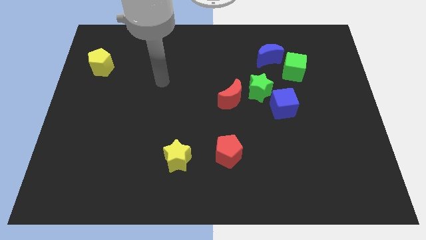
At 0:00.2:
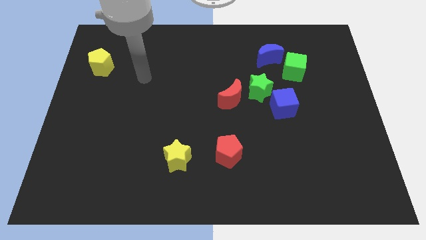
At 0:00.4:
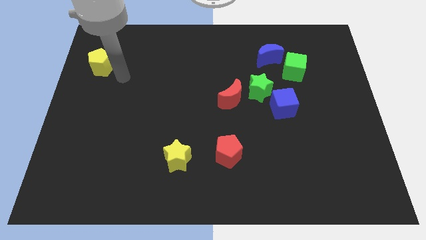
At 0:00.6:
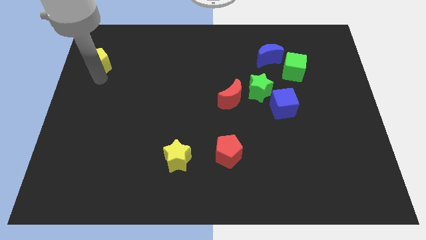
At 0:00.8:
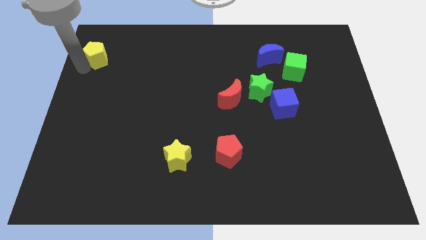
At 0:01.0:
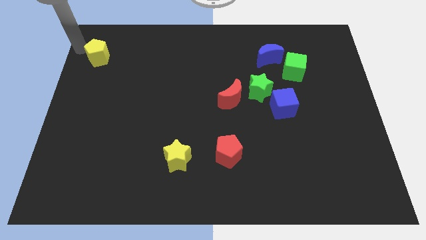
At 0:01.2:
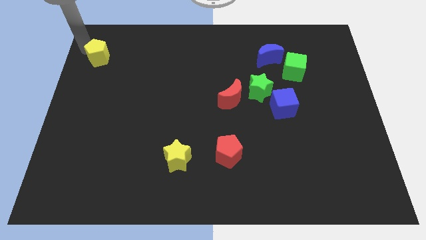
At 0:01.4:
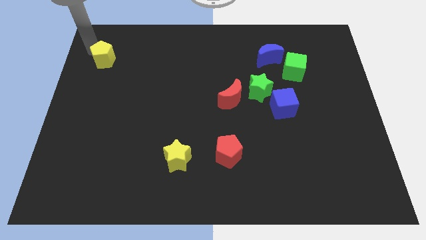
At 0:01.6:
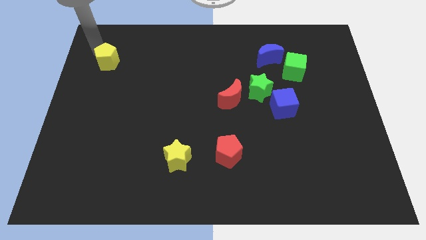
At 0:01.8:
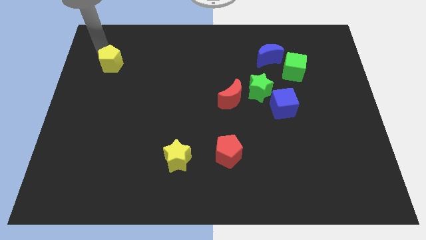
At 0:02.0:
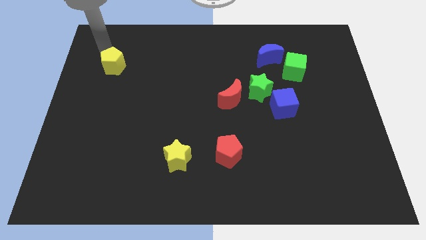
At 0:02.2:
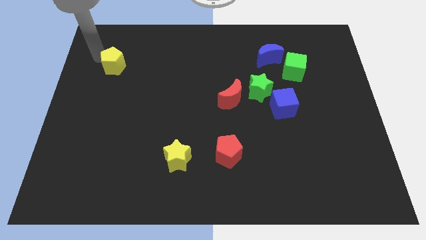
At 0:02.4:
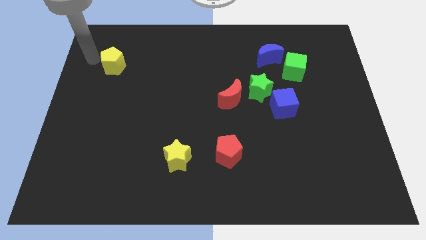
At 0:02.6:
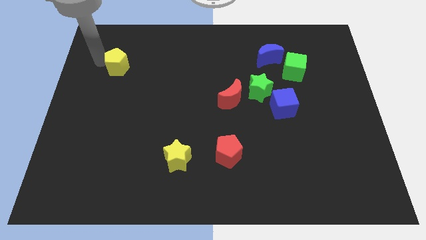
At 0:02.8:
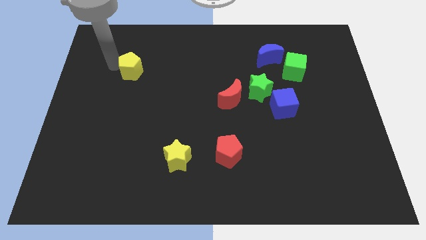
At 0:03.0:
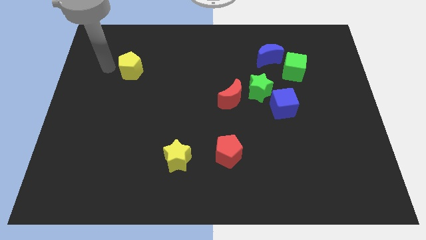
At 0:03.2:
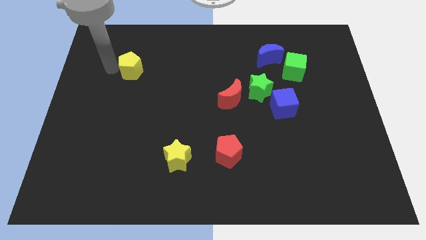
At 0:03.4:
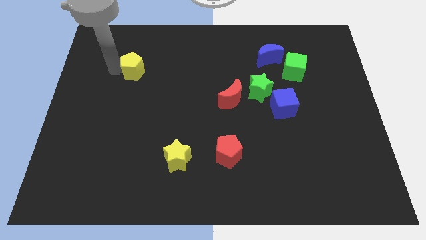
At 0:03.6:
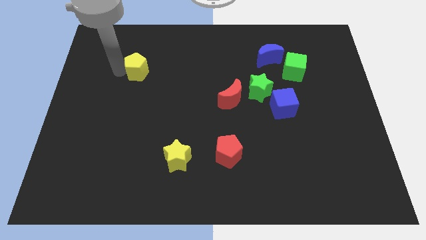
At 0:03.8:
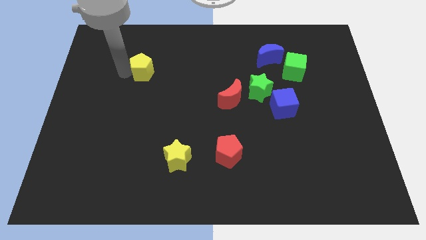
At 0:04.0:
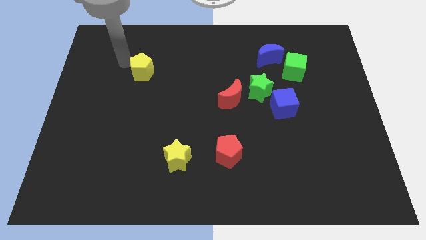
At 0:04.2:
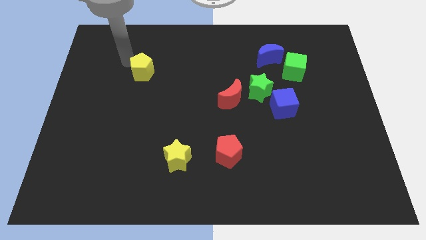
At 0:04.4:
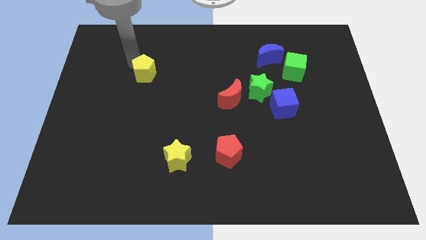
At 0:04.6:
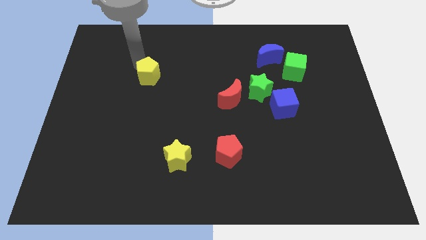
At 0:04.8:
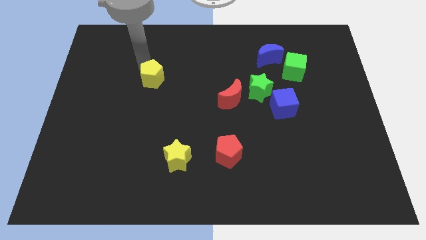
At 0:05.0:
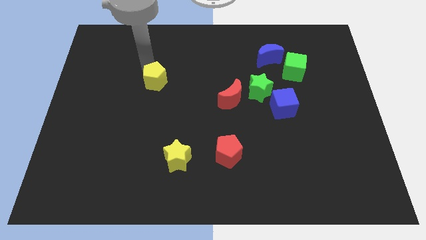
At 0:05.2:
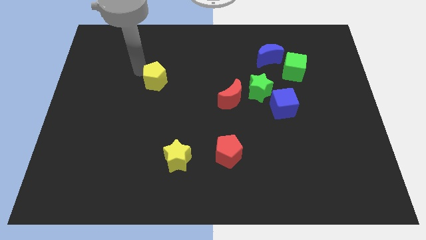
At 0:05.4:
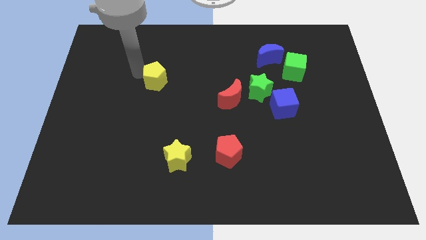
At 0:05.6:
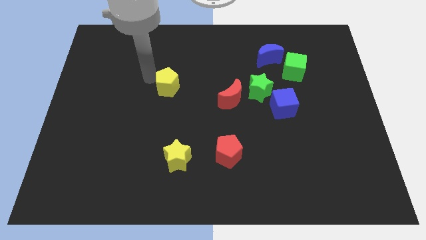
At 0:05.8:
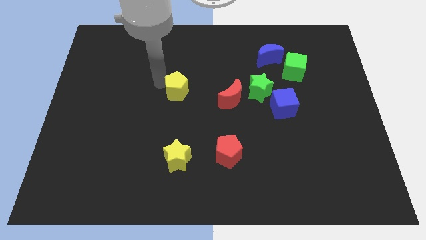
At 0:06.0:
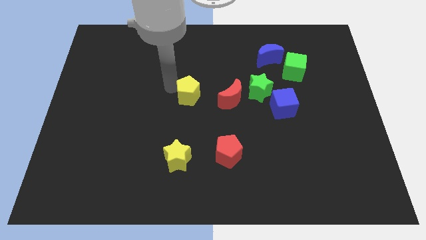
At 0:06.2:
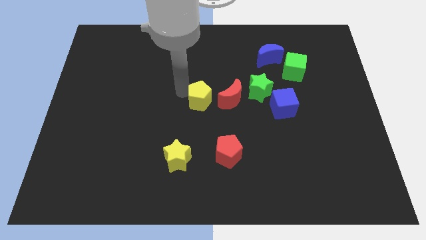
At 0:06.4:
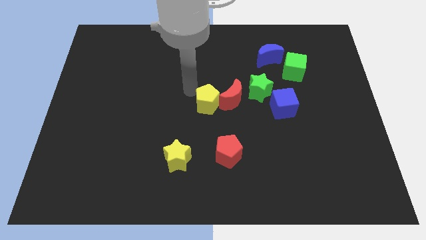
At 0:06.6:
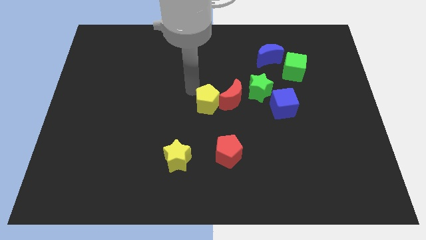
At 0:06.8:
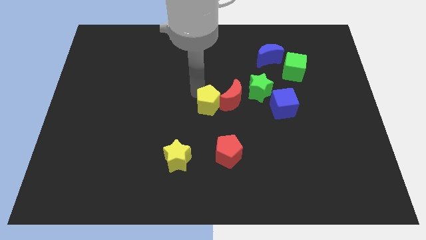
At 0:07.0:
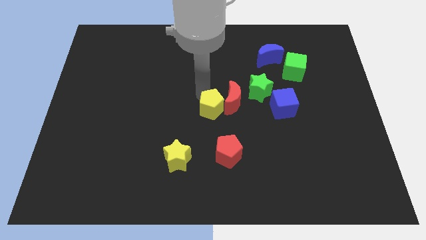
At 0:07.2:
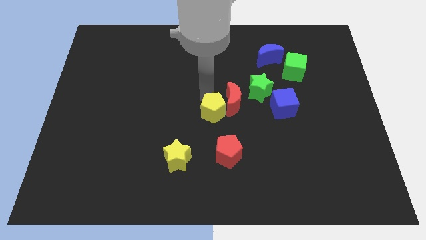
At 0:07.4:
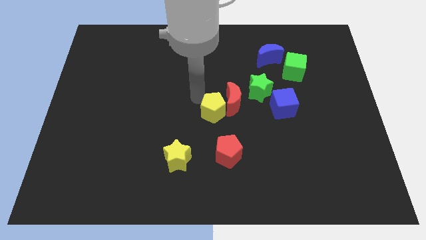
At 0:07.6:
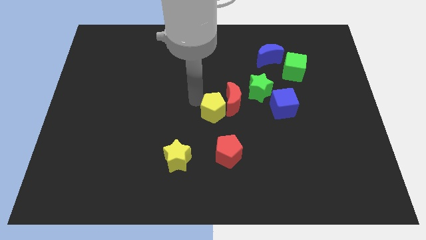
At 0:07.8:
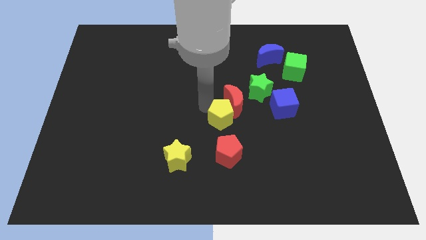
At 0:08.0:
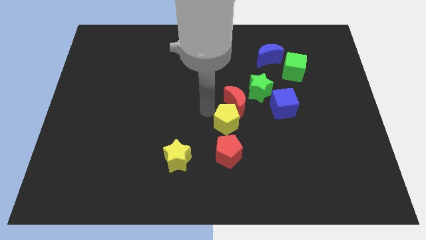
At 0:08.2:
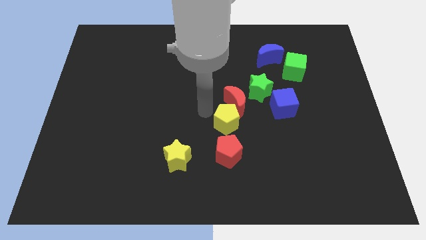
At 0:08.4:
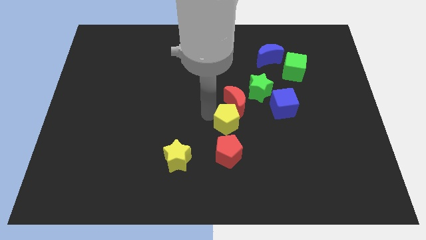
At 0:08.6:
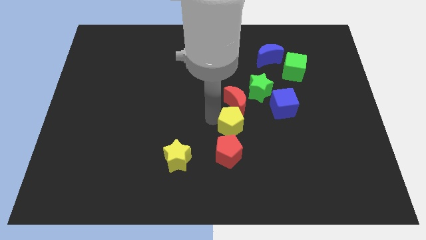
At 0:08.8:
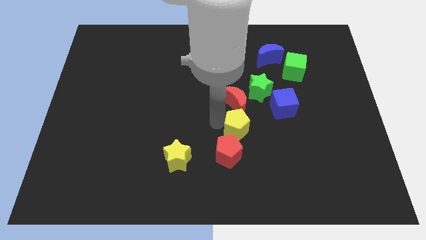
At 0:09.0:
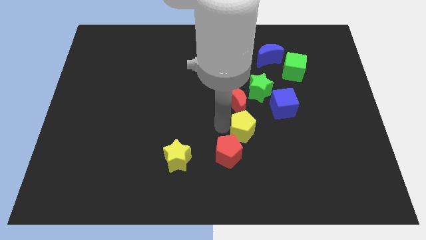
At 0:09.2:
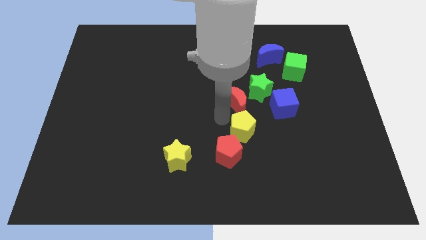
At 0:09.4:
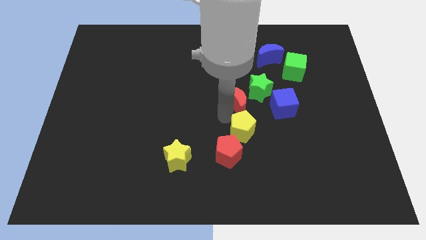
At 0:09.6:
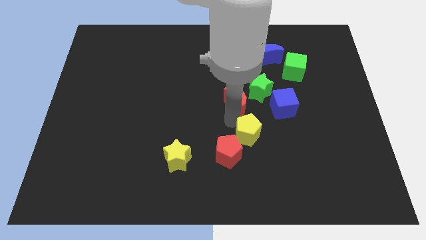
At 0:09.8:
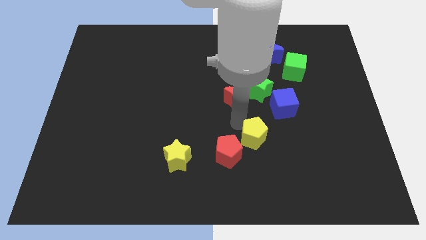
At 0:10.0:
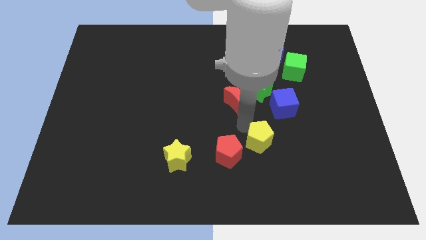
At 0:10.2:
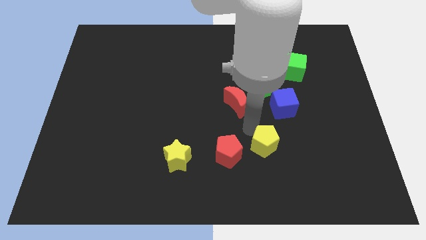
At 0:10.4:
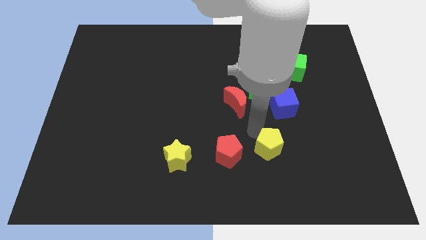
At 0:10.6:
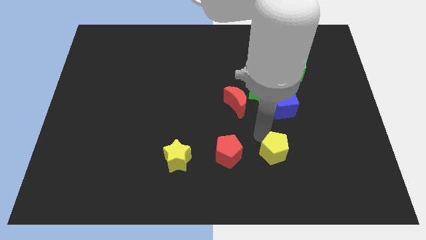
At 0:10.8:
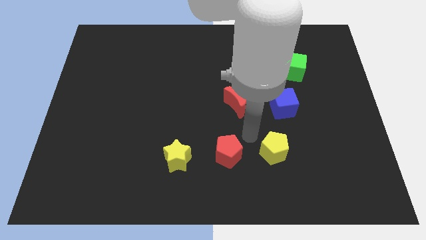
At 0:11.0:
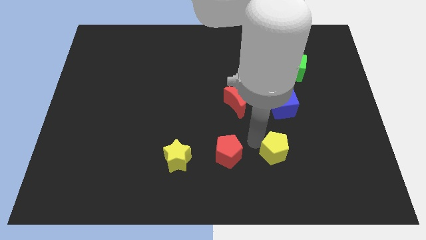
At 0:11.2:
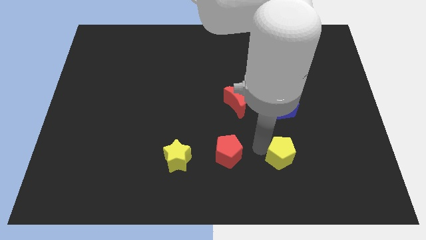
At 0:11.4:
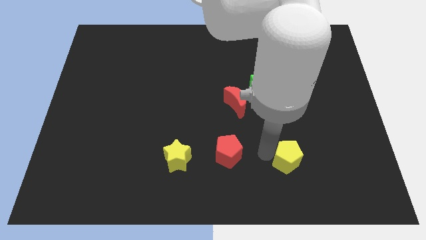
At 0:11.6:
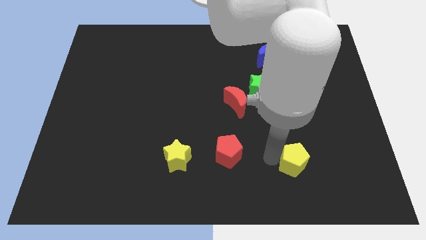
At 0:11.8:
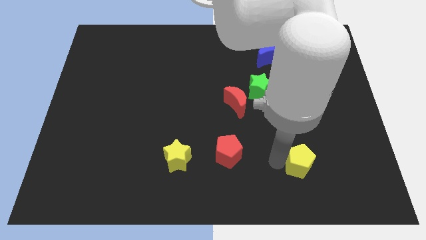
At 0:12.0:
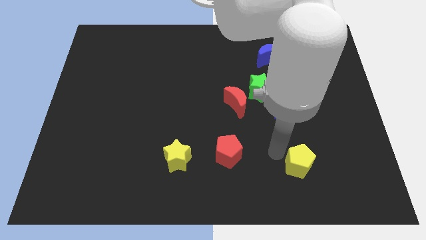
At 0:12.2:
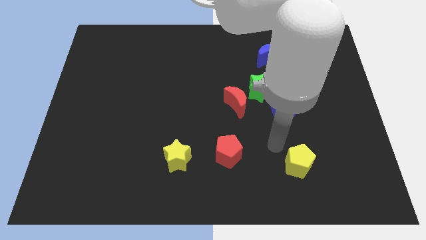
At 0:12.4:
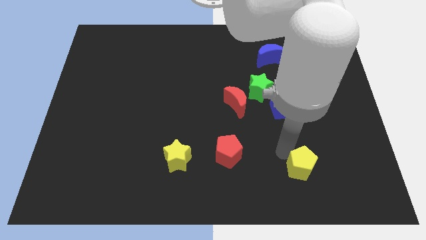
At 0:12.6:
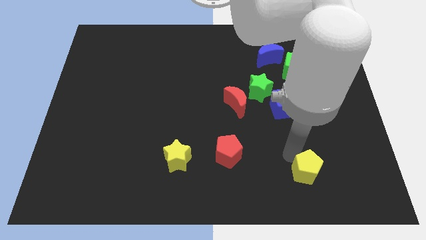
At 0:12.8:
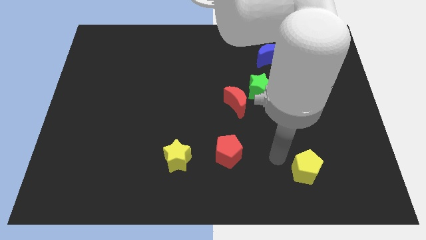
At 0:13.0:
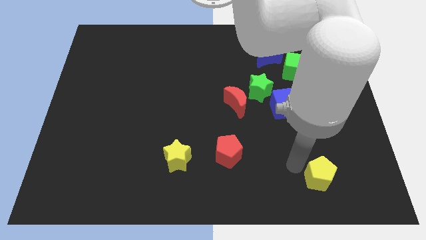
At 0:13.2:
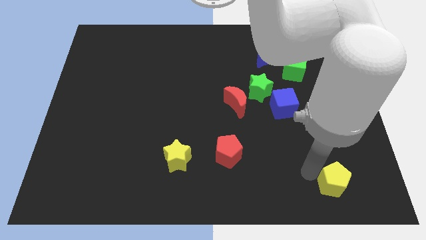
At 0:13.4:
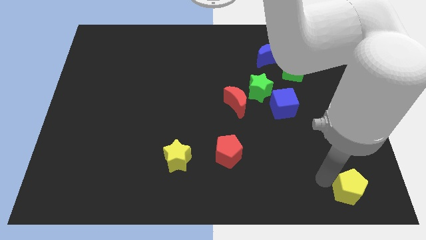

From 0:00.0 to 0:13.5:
slide the yellow pentagon to the bottom right of the board
